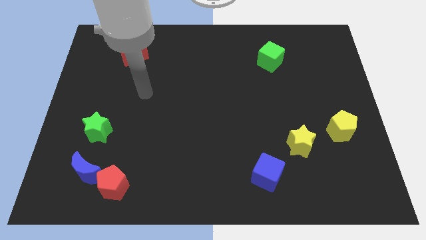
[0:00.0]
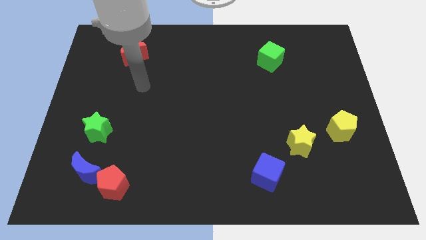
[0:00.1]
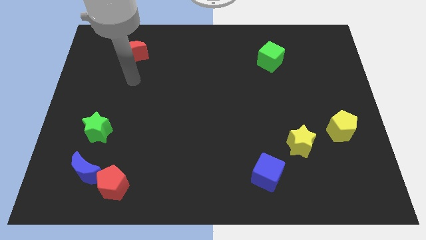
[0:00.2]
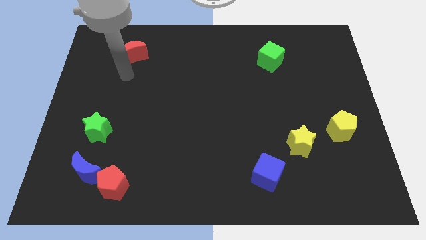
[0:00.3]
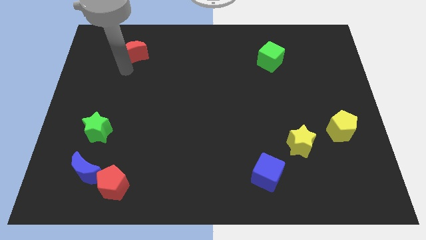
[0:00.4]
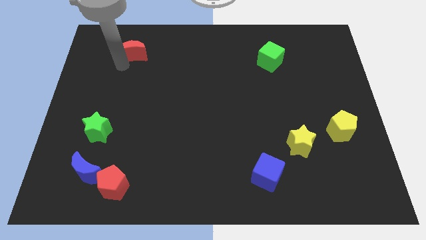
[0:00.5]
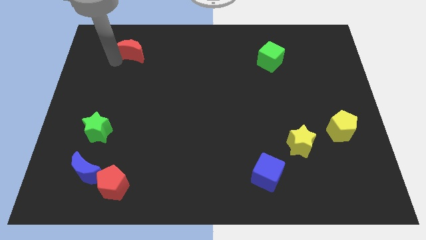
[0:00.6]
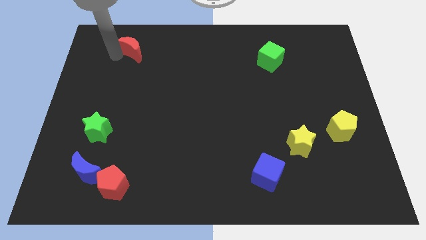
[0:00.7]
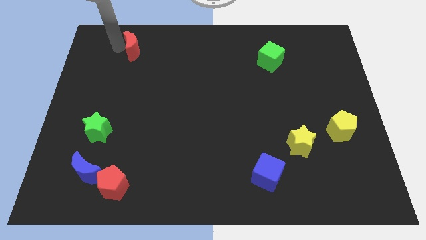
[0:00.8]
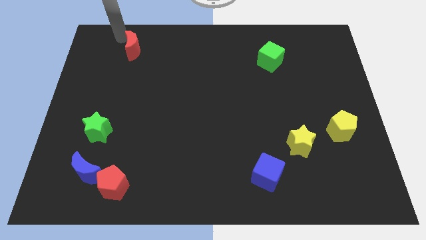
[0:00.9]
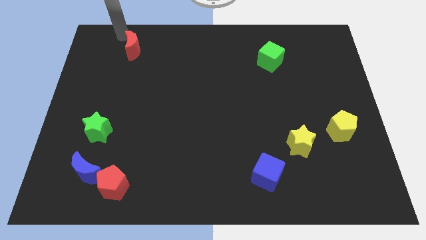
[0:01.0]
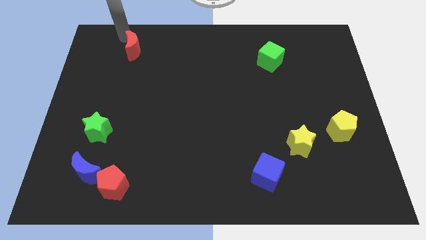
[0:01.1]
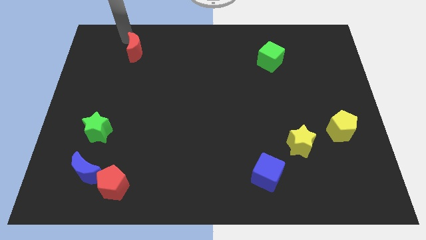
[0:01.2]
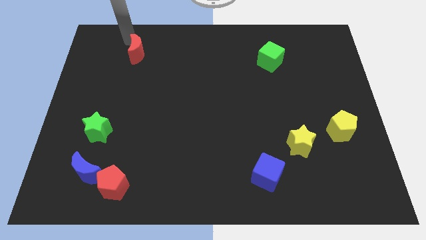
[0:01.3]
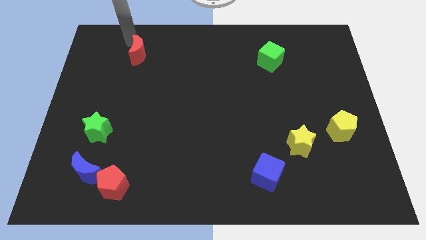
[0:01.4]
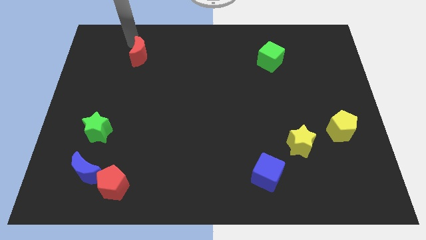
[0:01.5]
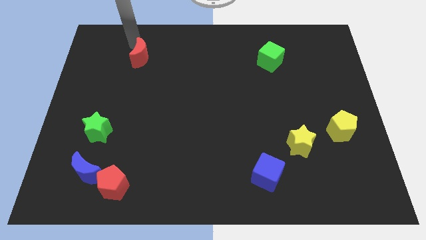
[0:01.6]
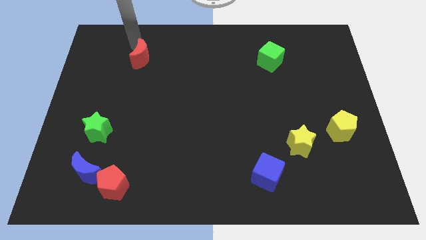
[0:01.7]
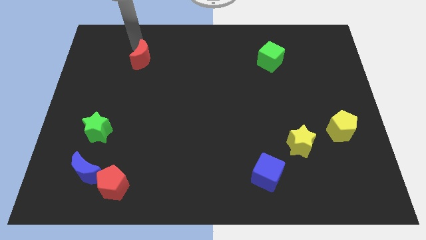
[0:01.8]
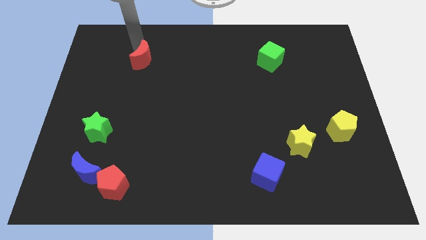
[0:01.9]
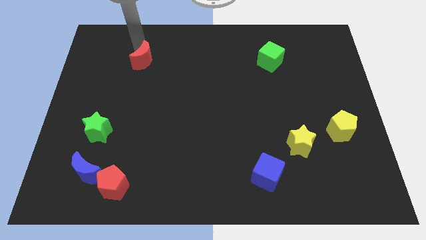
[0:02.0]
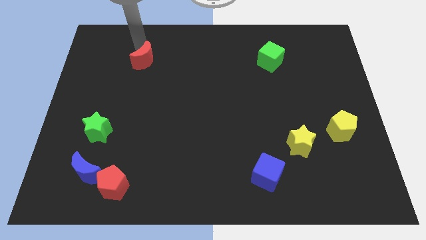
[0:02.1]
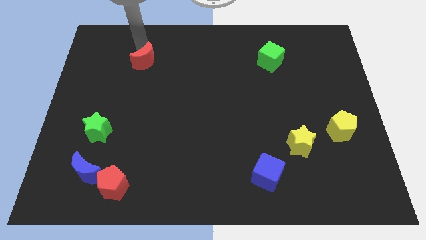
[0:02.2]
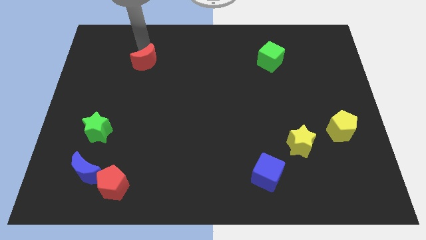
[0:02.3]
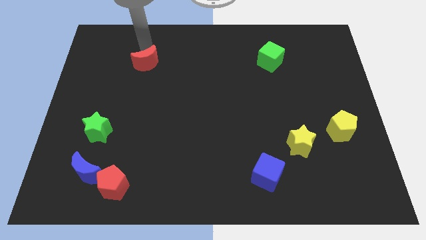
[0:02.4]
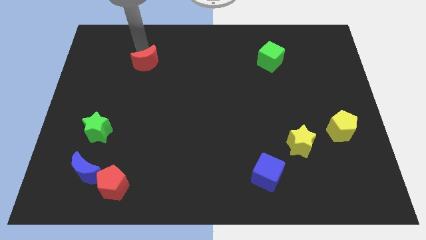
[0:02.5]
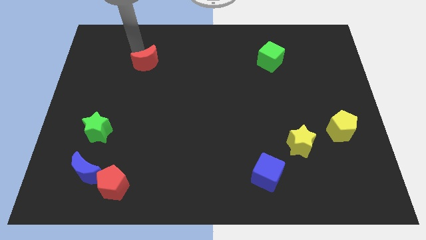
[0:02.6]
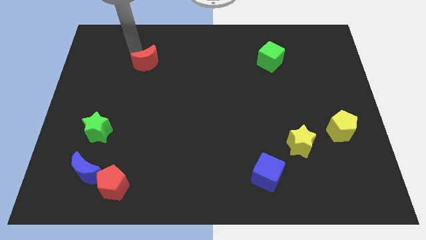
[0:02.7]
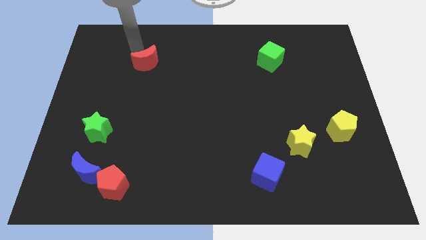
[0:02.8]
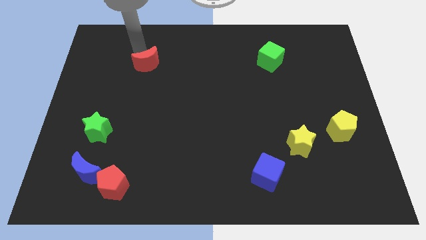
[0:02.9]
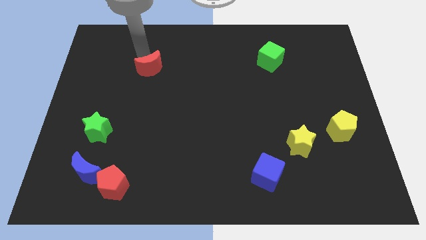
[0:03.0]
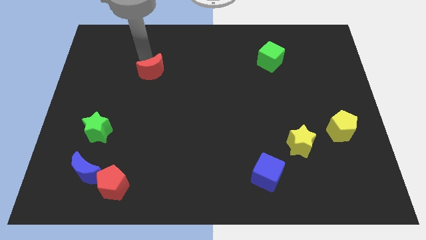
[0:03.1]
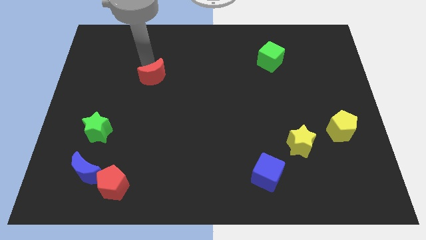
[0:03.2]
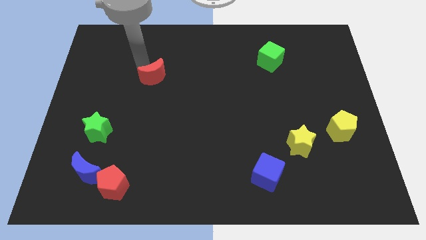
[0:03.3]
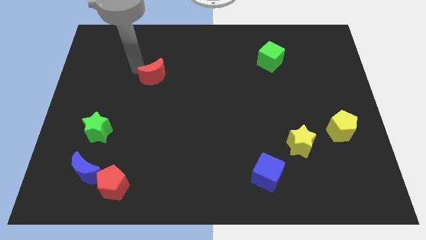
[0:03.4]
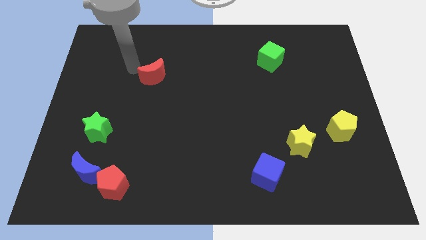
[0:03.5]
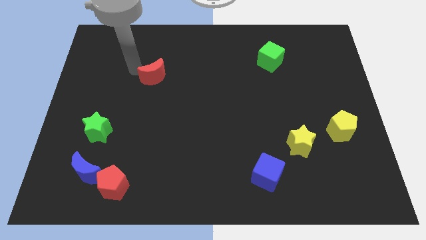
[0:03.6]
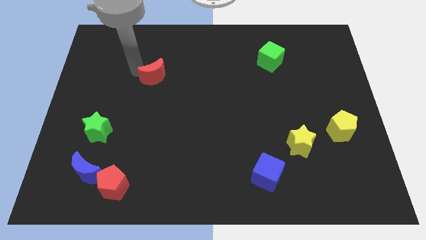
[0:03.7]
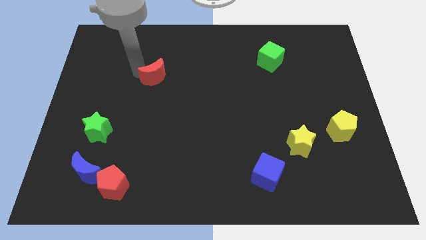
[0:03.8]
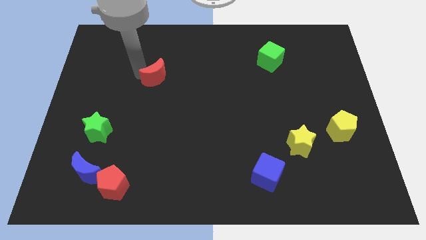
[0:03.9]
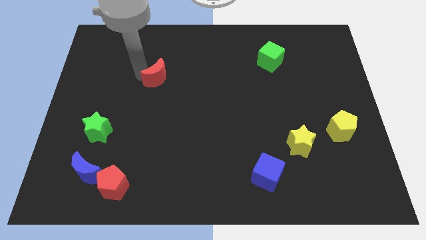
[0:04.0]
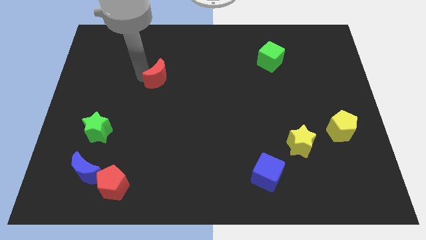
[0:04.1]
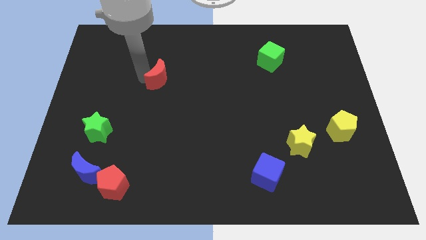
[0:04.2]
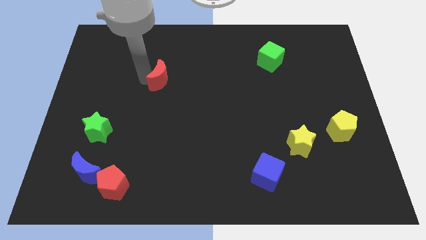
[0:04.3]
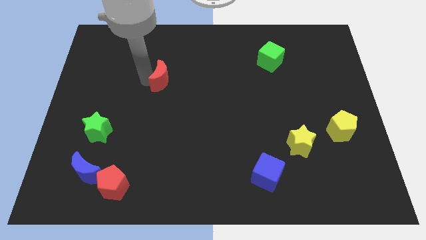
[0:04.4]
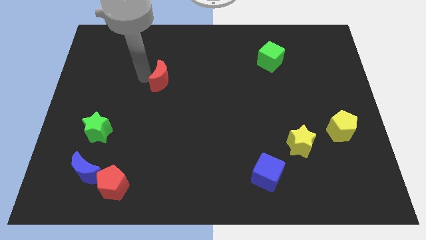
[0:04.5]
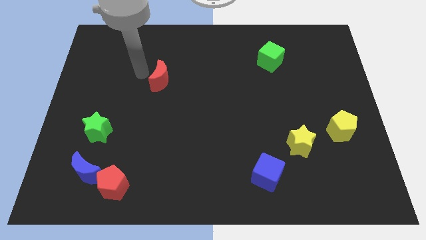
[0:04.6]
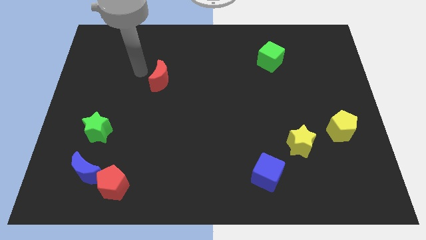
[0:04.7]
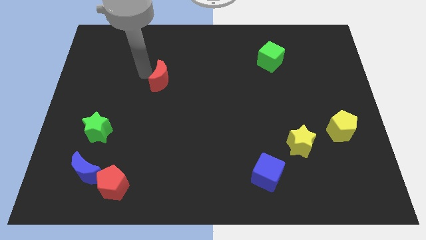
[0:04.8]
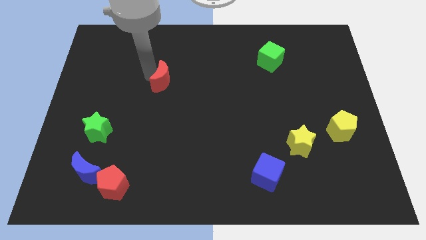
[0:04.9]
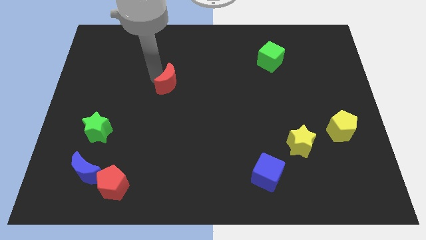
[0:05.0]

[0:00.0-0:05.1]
slide the red moon to the middle of the board

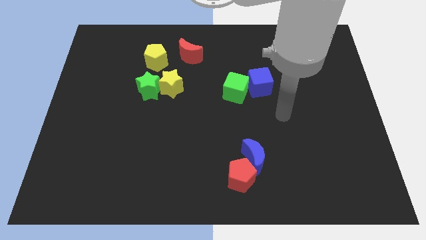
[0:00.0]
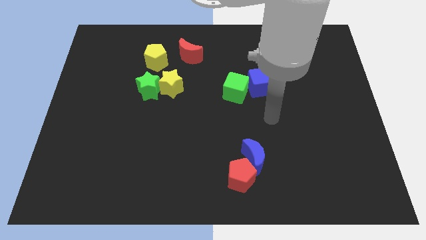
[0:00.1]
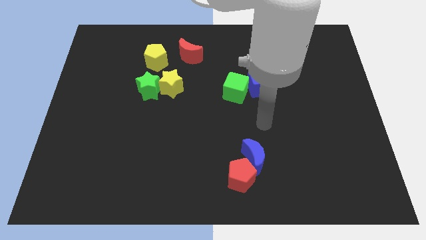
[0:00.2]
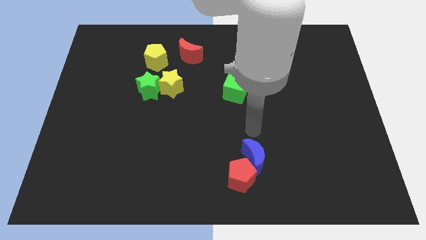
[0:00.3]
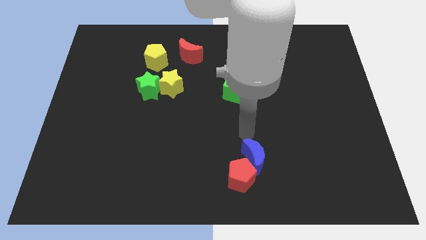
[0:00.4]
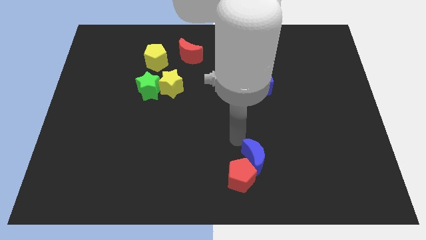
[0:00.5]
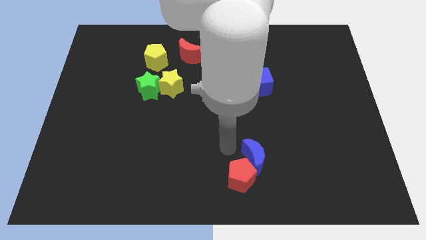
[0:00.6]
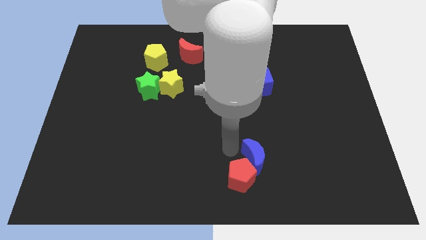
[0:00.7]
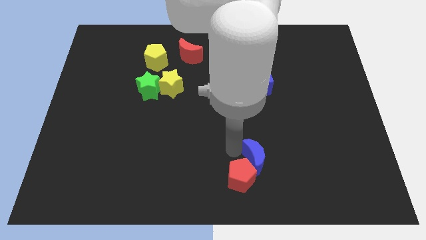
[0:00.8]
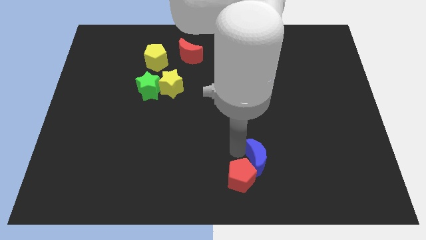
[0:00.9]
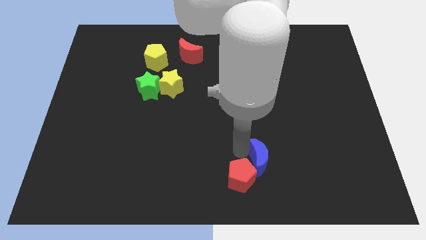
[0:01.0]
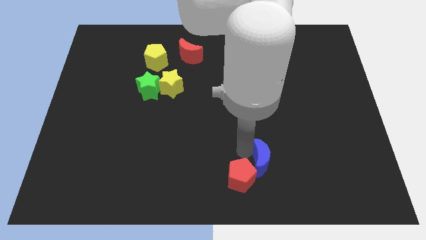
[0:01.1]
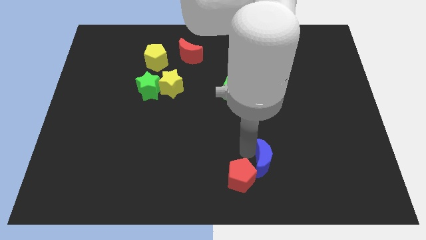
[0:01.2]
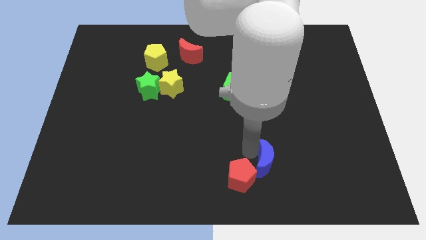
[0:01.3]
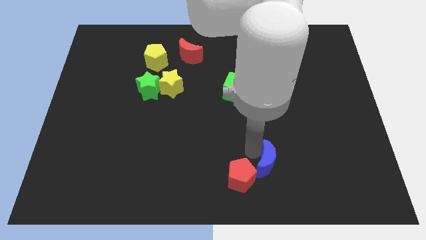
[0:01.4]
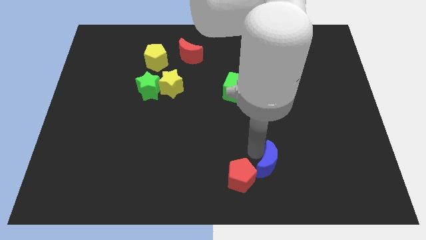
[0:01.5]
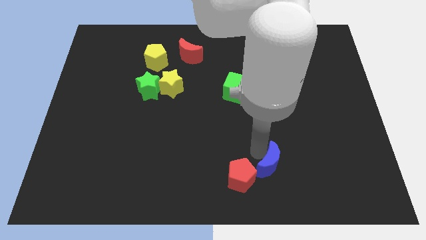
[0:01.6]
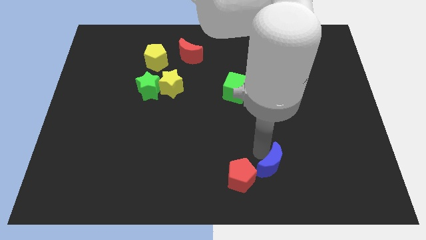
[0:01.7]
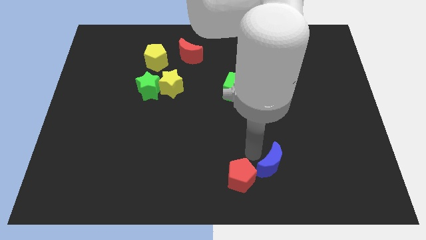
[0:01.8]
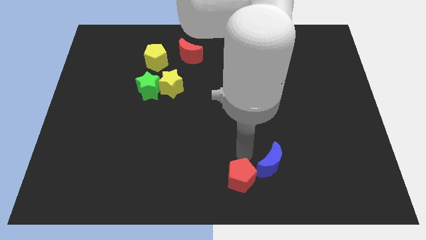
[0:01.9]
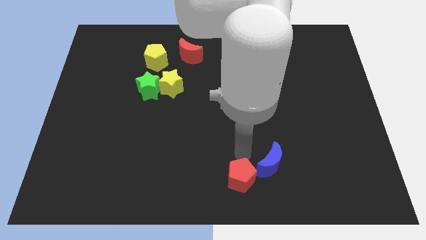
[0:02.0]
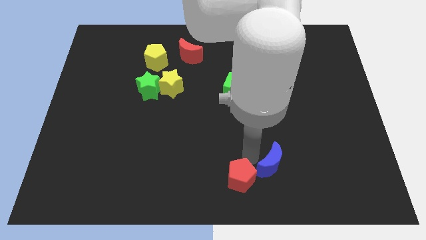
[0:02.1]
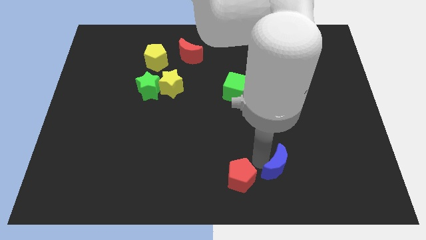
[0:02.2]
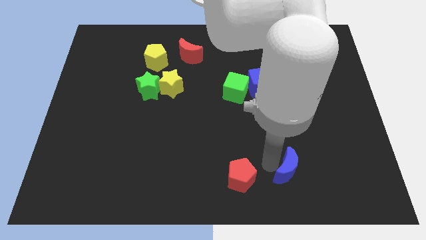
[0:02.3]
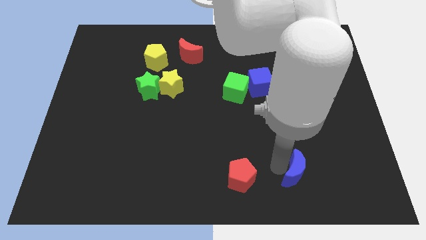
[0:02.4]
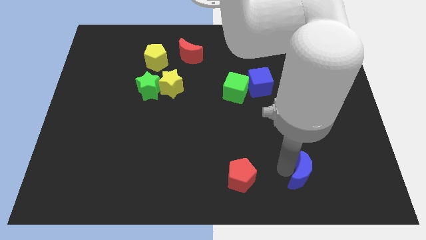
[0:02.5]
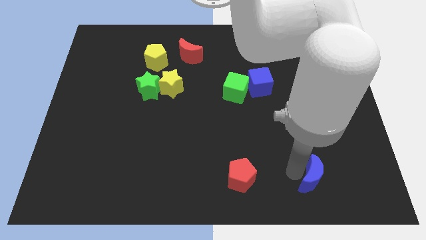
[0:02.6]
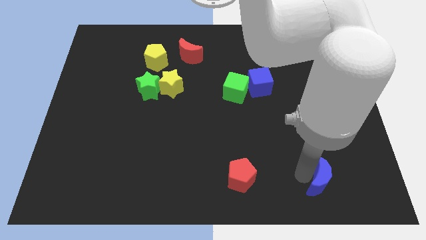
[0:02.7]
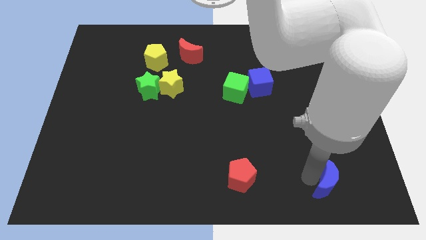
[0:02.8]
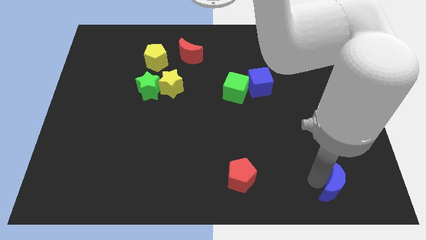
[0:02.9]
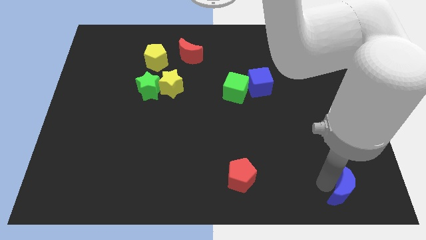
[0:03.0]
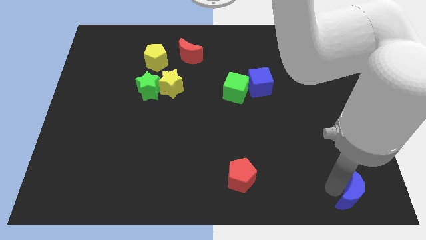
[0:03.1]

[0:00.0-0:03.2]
put the blue moon to the lower right corner
